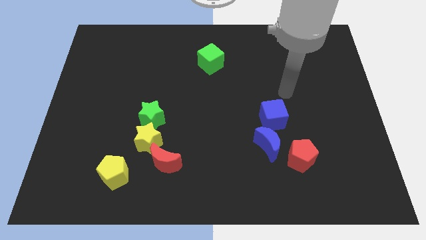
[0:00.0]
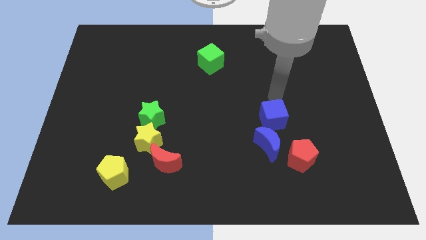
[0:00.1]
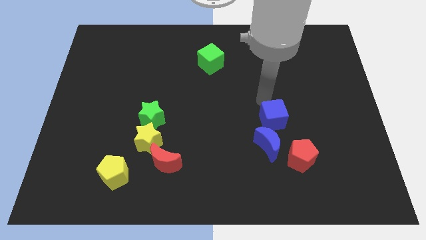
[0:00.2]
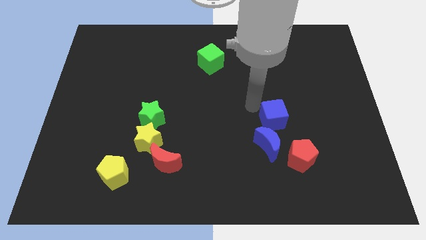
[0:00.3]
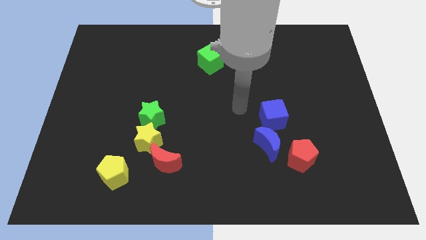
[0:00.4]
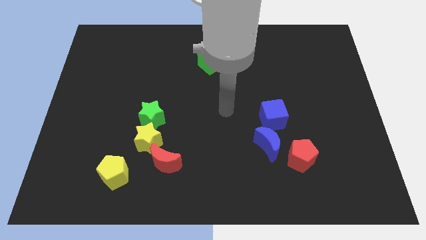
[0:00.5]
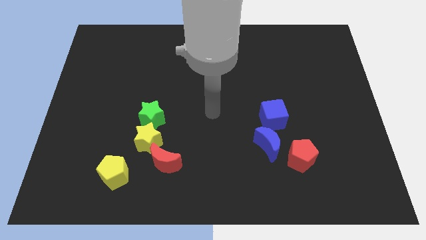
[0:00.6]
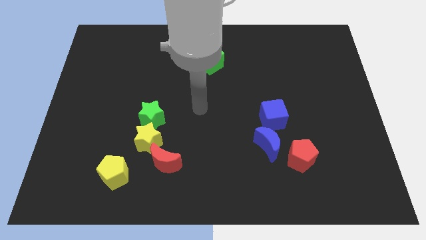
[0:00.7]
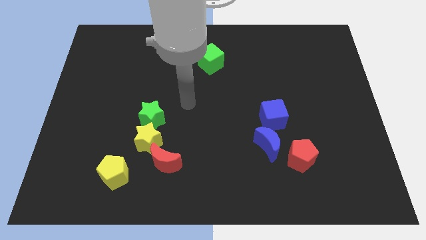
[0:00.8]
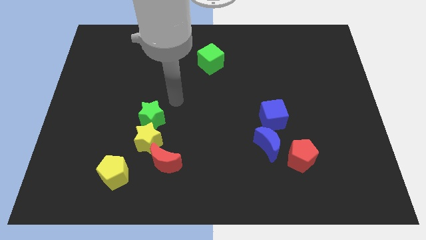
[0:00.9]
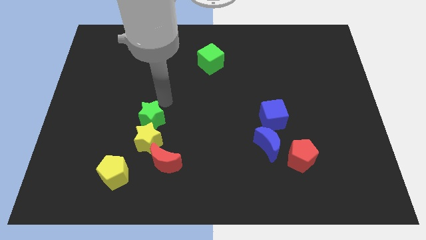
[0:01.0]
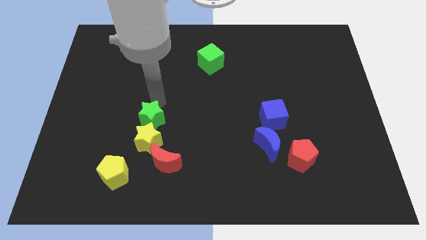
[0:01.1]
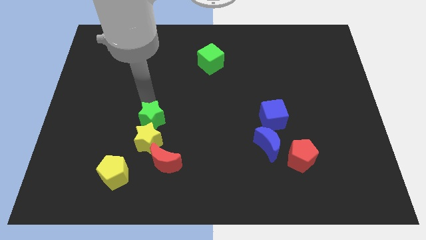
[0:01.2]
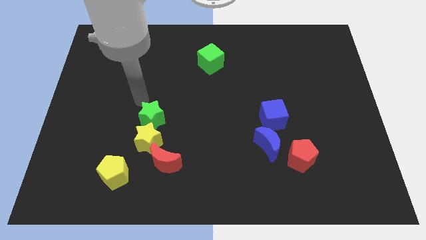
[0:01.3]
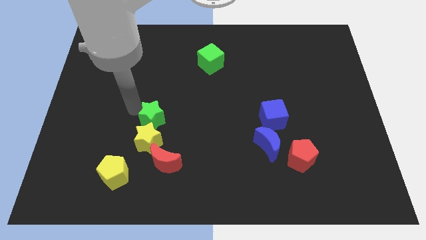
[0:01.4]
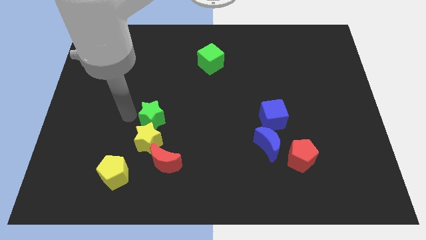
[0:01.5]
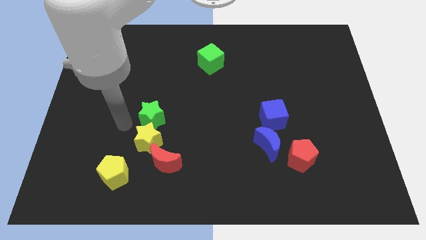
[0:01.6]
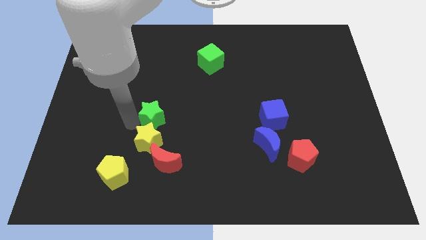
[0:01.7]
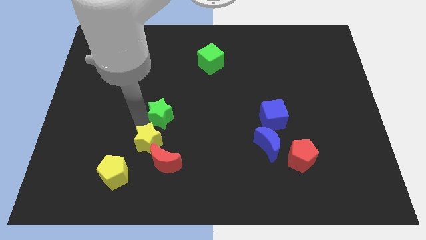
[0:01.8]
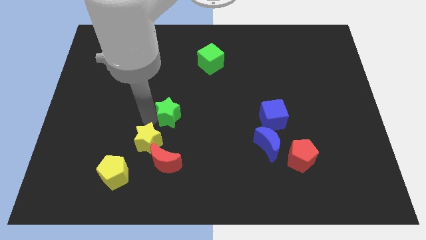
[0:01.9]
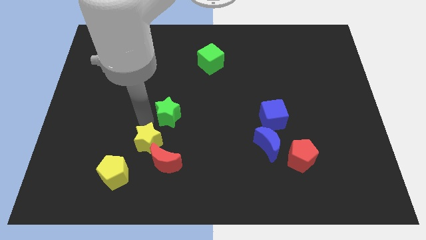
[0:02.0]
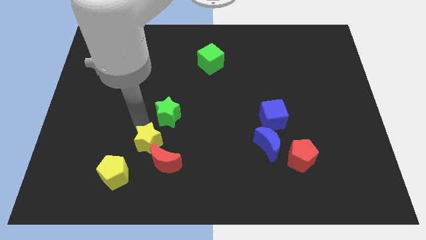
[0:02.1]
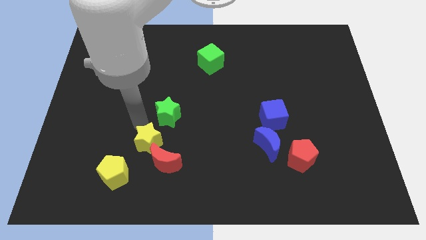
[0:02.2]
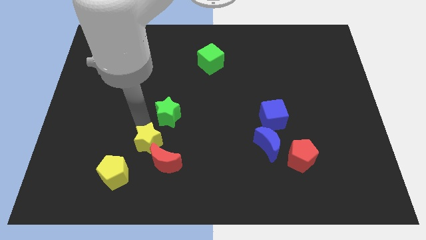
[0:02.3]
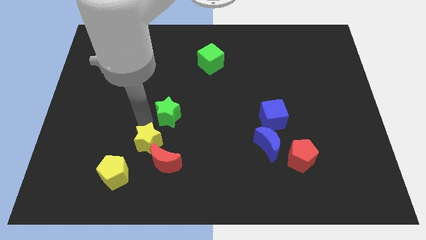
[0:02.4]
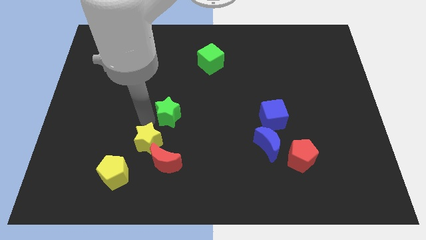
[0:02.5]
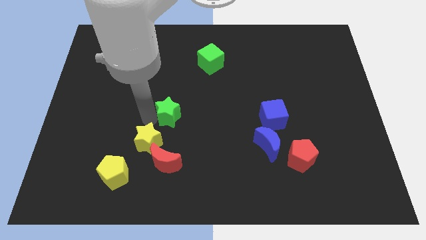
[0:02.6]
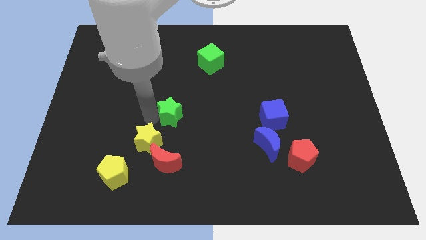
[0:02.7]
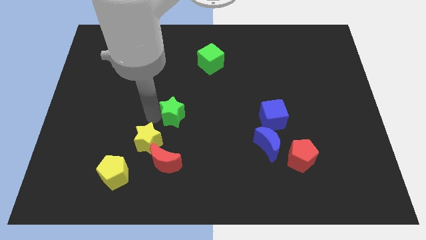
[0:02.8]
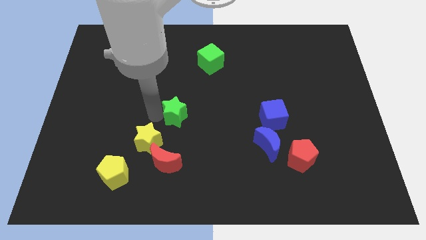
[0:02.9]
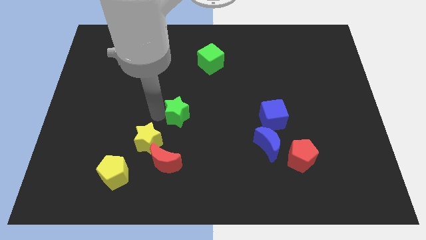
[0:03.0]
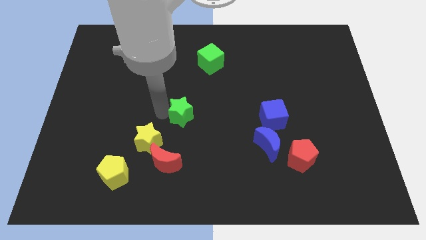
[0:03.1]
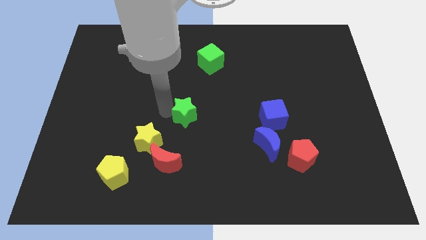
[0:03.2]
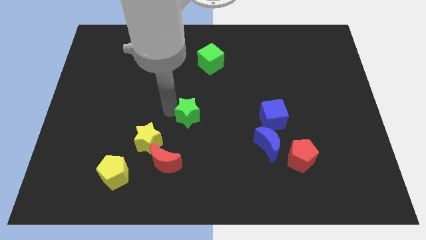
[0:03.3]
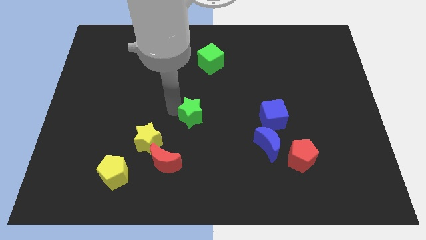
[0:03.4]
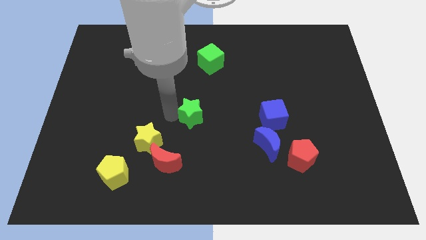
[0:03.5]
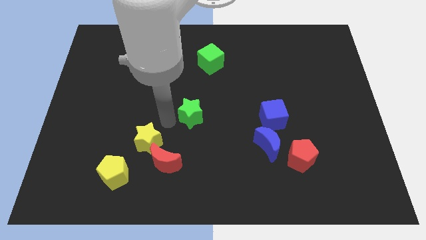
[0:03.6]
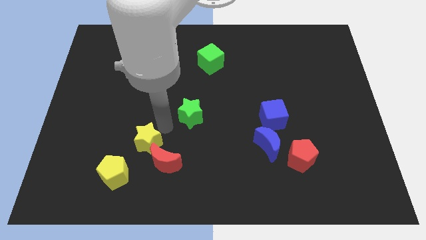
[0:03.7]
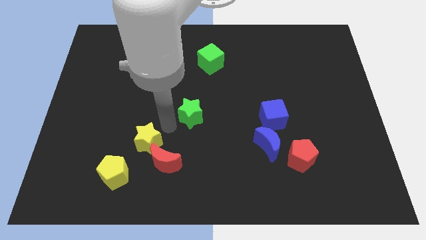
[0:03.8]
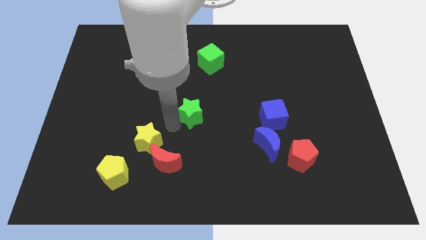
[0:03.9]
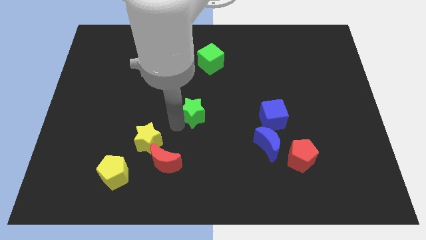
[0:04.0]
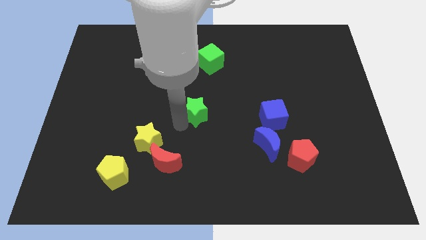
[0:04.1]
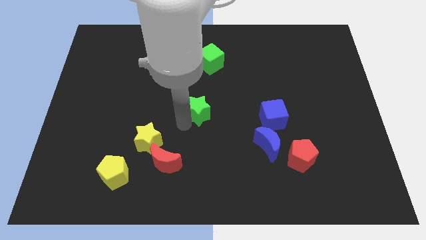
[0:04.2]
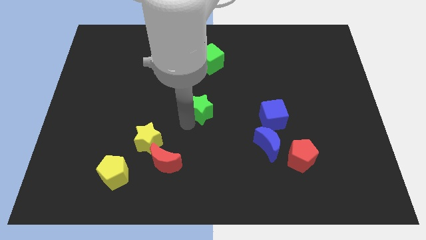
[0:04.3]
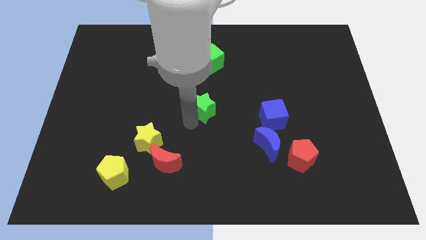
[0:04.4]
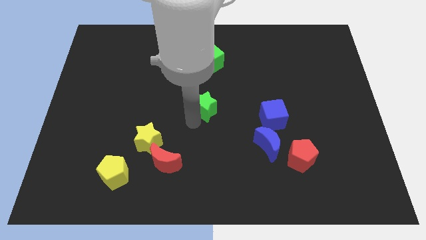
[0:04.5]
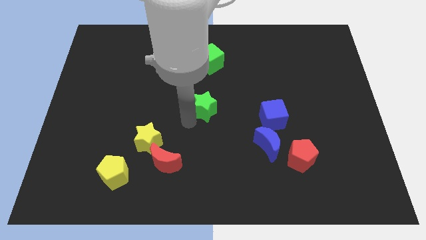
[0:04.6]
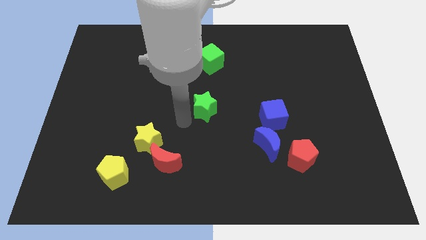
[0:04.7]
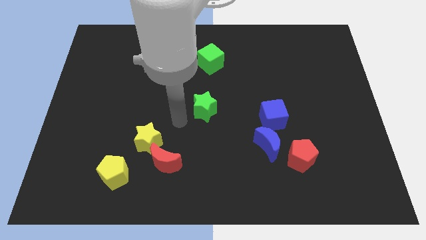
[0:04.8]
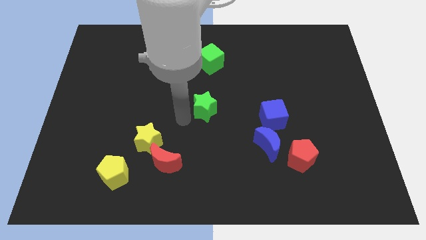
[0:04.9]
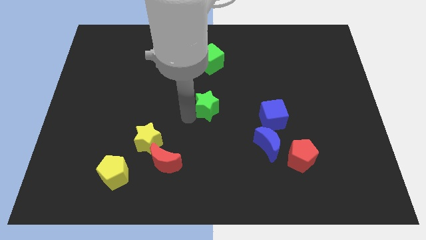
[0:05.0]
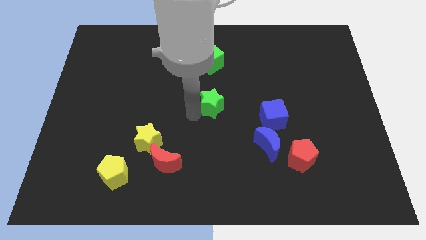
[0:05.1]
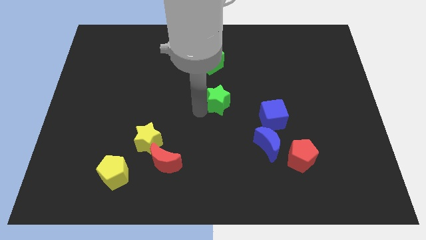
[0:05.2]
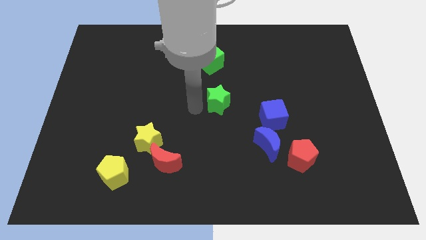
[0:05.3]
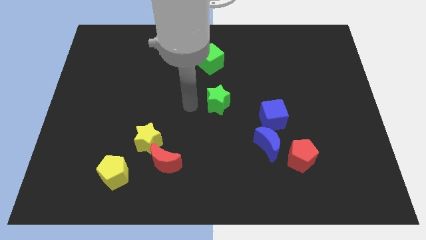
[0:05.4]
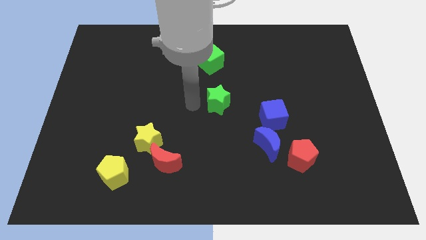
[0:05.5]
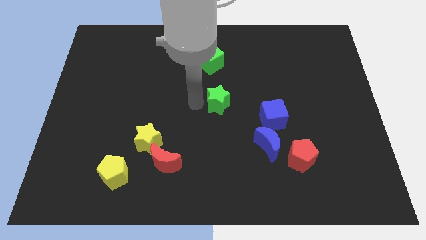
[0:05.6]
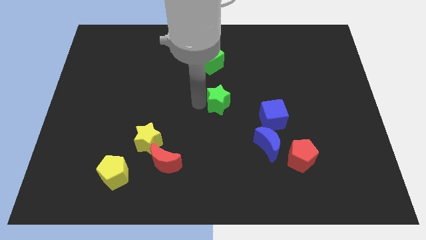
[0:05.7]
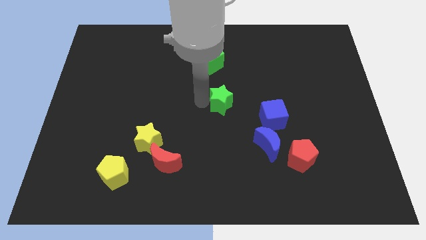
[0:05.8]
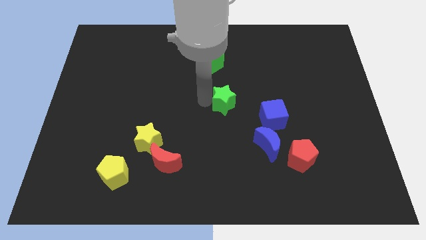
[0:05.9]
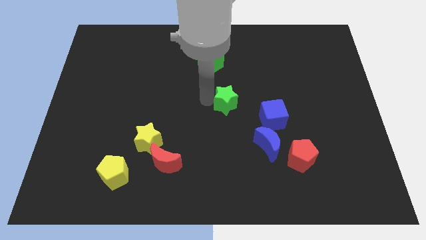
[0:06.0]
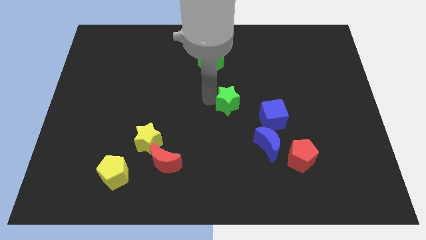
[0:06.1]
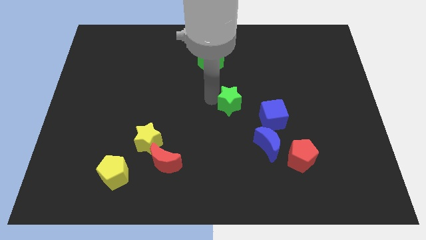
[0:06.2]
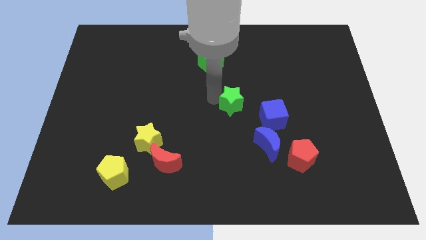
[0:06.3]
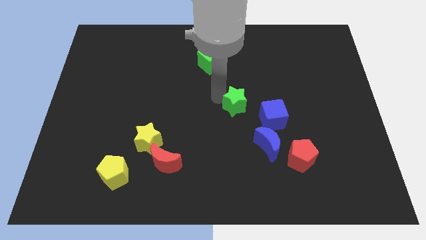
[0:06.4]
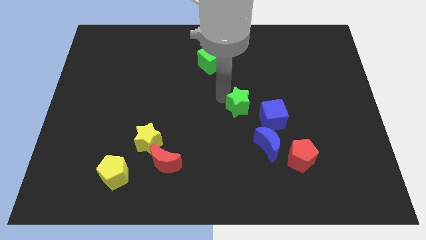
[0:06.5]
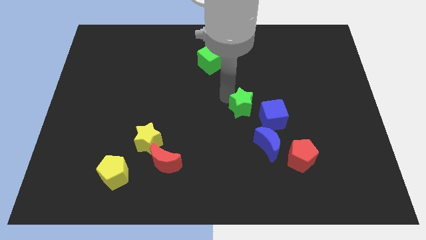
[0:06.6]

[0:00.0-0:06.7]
move the green star to the right

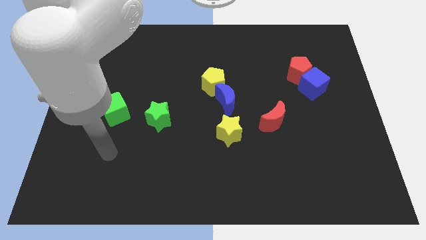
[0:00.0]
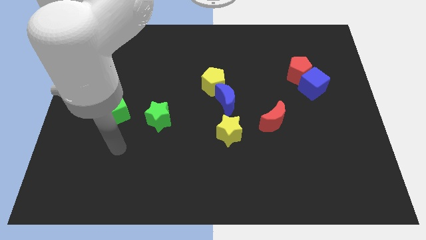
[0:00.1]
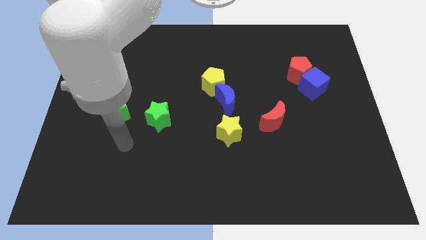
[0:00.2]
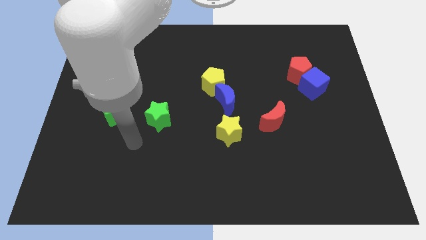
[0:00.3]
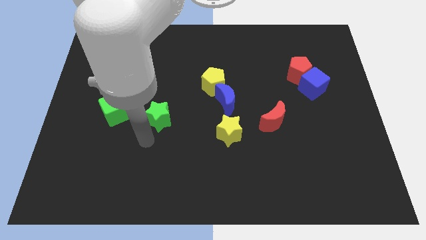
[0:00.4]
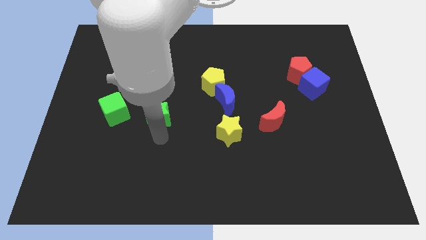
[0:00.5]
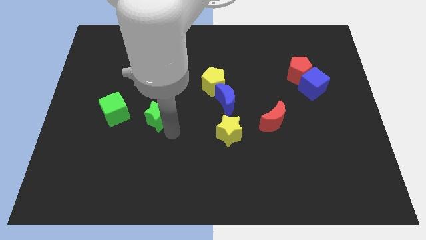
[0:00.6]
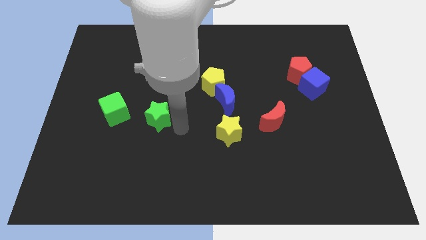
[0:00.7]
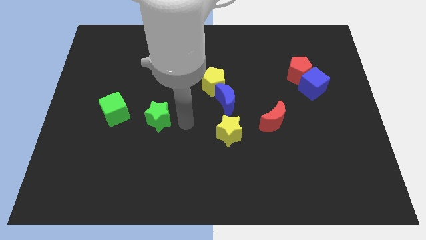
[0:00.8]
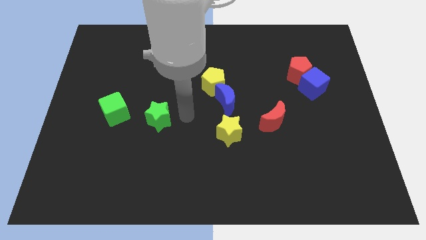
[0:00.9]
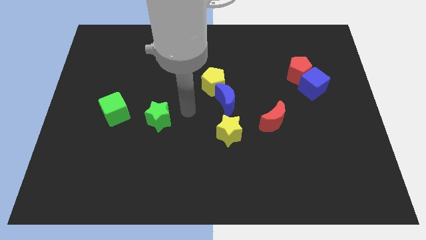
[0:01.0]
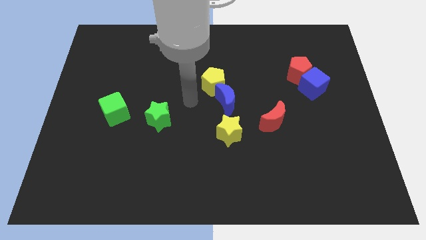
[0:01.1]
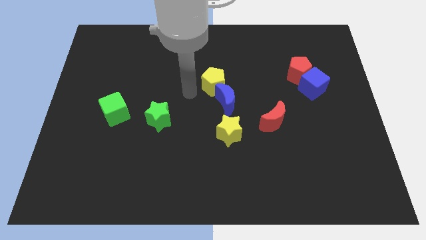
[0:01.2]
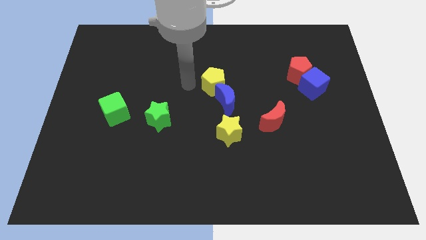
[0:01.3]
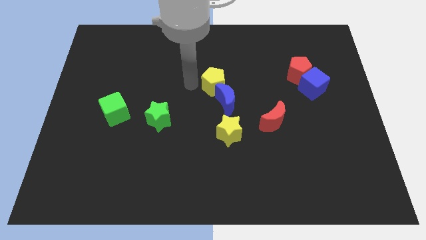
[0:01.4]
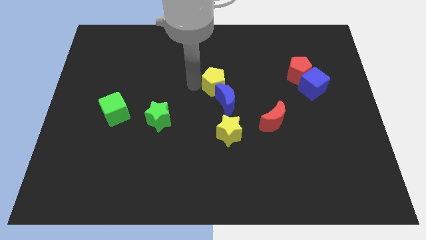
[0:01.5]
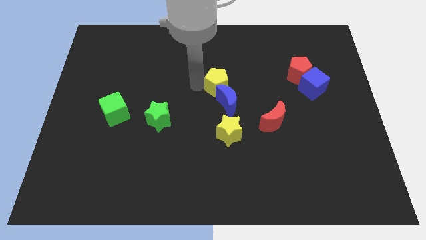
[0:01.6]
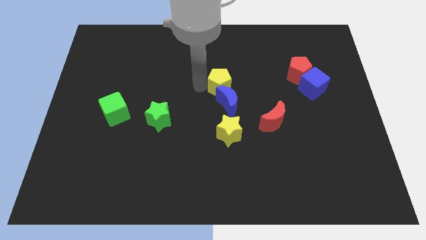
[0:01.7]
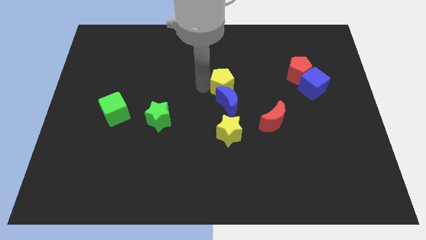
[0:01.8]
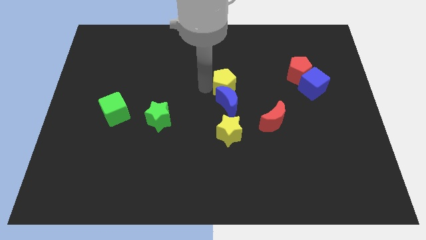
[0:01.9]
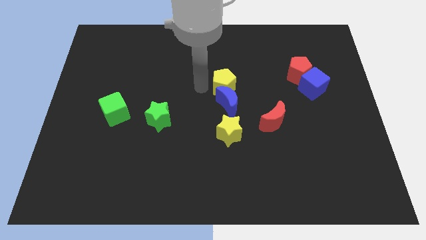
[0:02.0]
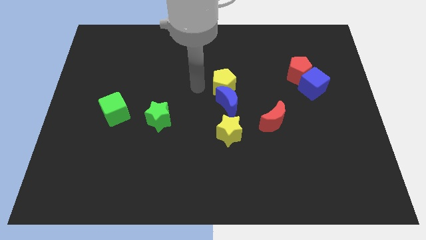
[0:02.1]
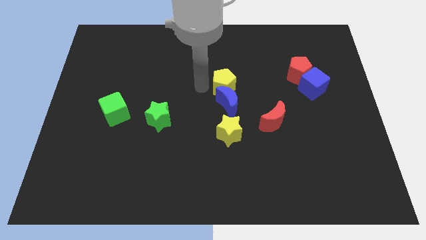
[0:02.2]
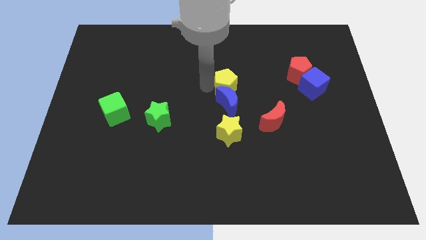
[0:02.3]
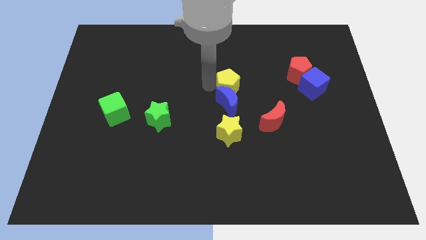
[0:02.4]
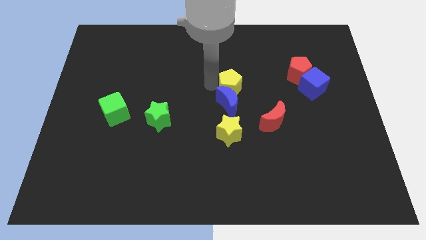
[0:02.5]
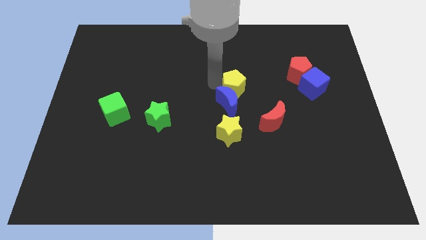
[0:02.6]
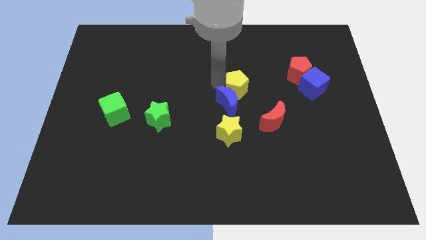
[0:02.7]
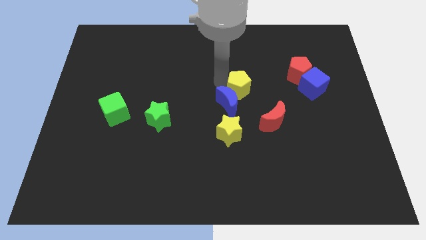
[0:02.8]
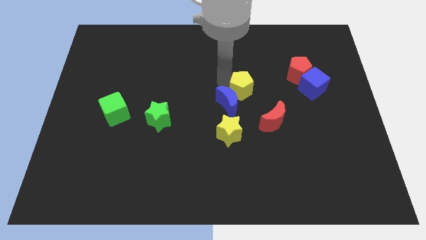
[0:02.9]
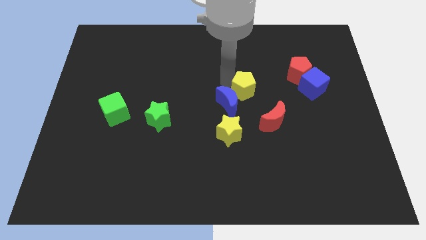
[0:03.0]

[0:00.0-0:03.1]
slightly move the yellow pentagon right
